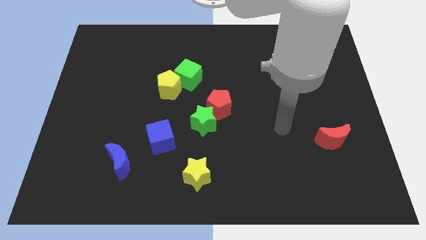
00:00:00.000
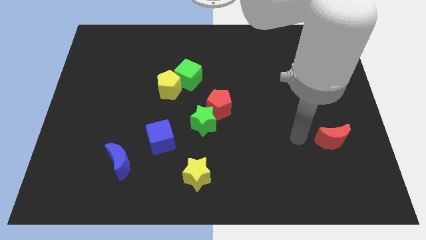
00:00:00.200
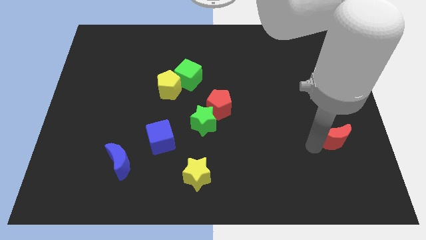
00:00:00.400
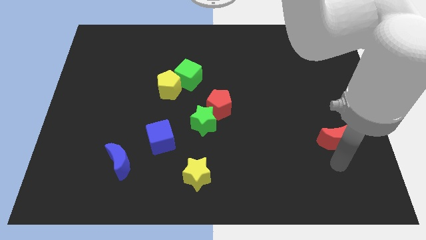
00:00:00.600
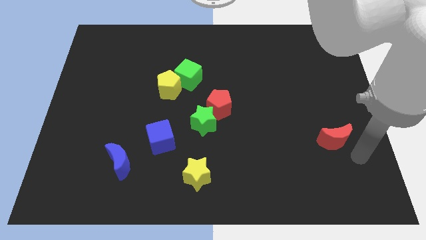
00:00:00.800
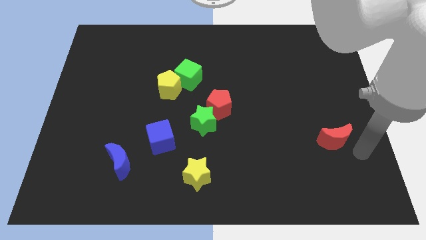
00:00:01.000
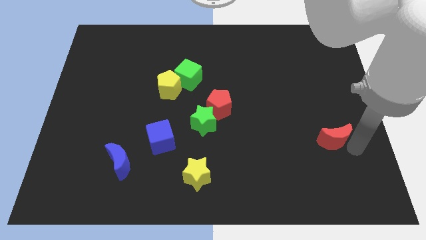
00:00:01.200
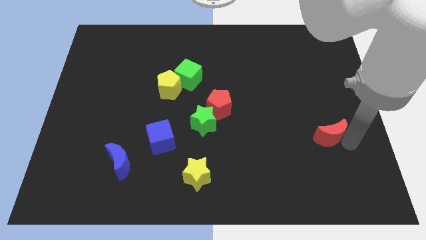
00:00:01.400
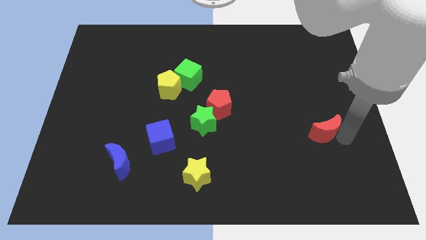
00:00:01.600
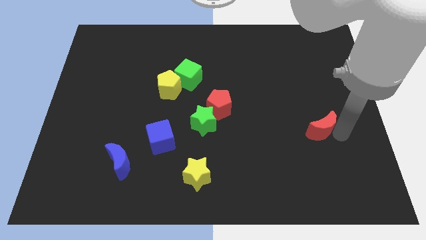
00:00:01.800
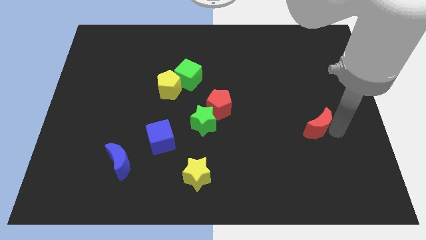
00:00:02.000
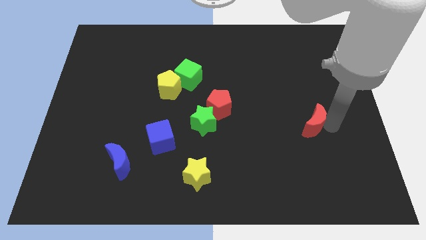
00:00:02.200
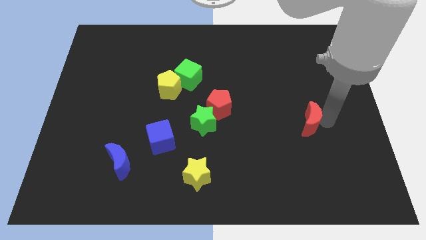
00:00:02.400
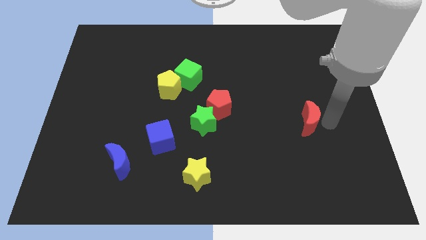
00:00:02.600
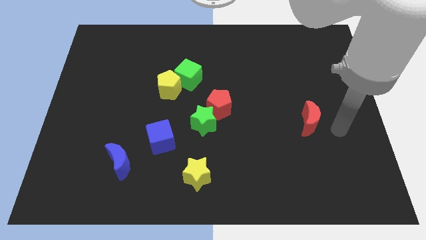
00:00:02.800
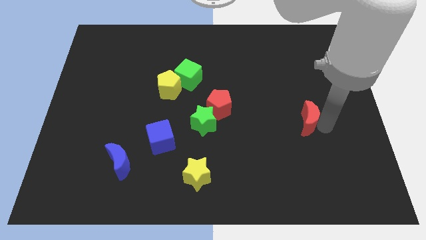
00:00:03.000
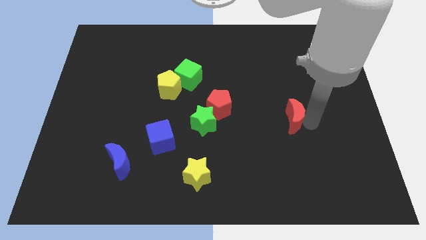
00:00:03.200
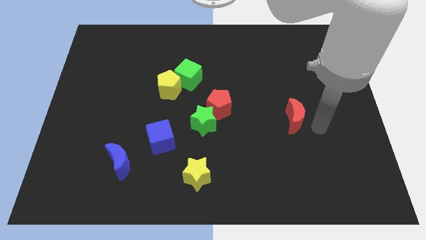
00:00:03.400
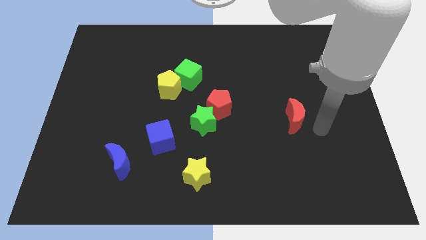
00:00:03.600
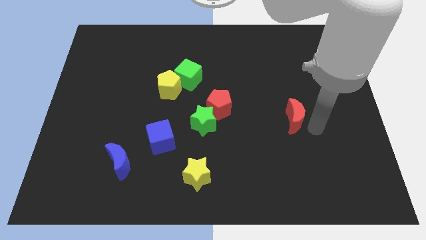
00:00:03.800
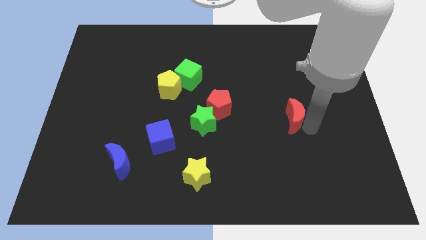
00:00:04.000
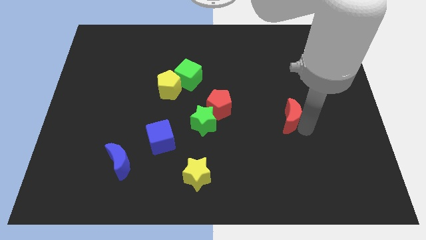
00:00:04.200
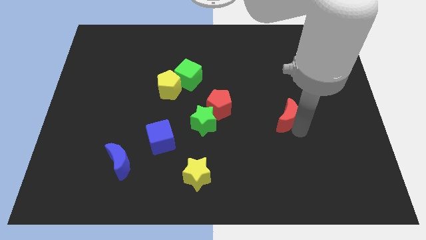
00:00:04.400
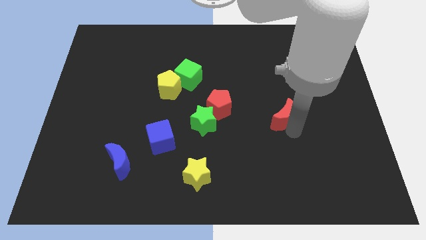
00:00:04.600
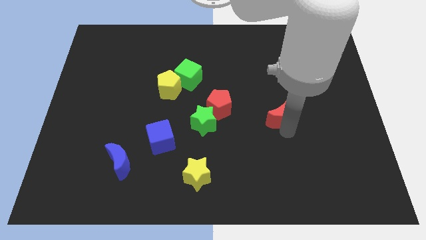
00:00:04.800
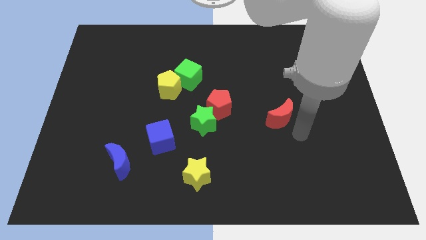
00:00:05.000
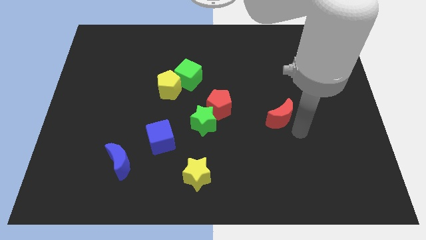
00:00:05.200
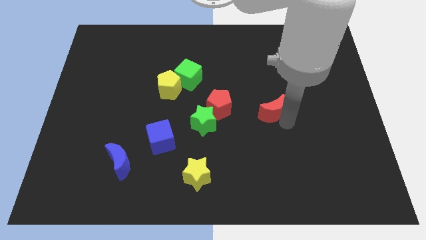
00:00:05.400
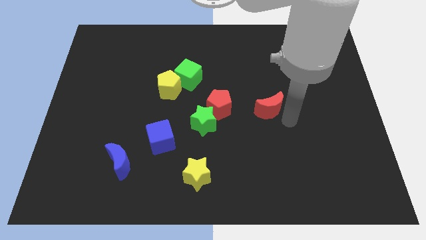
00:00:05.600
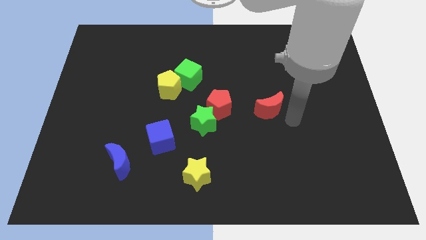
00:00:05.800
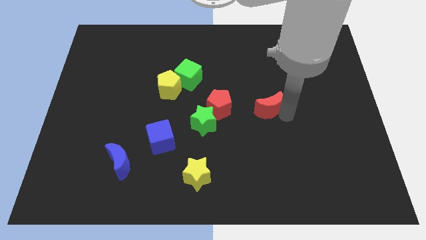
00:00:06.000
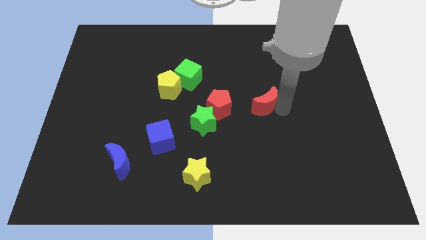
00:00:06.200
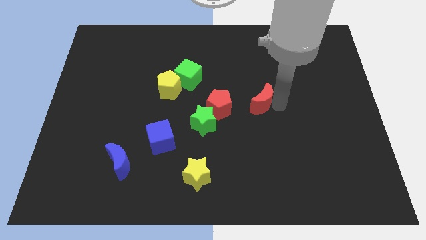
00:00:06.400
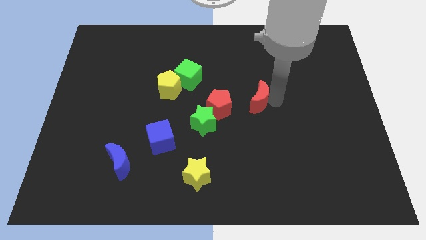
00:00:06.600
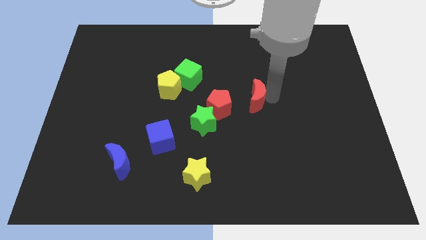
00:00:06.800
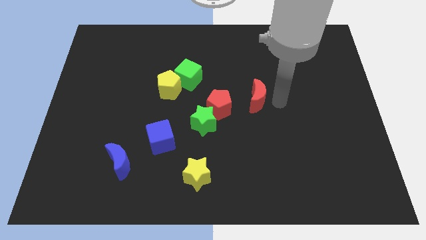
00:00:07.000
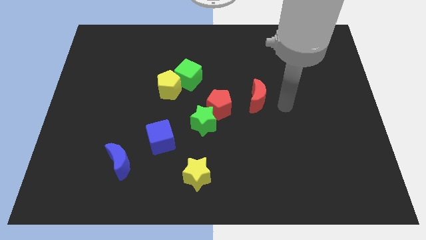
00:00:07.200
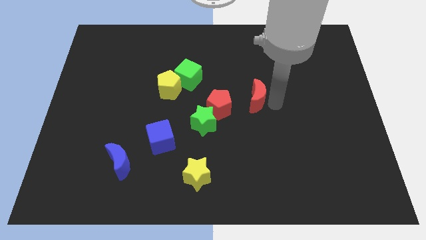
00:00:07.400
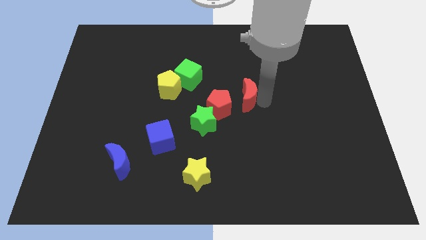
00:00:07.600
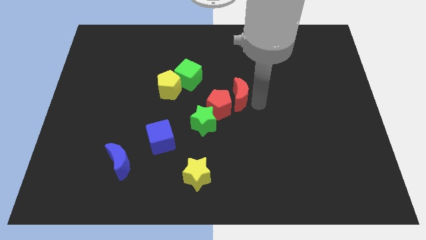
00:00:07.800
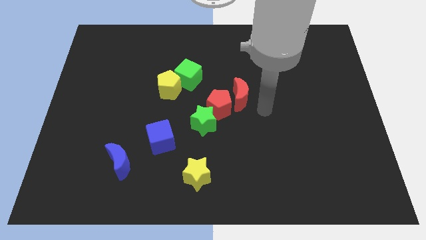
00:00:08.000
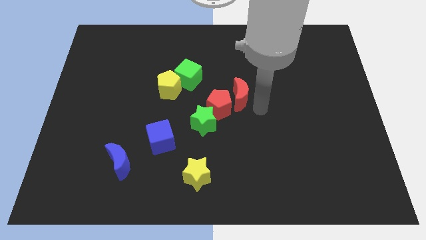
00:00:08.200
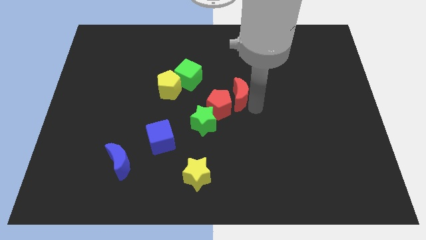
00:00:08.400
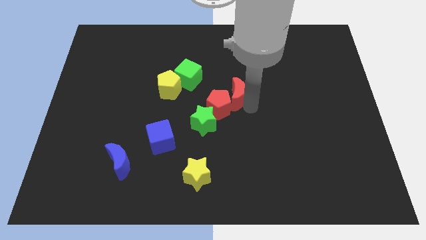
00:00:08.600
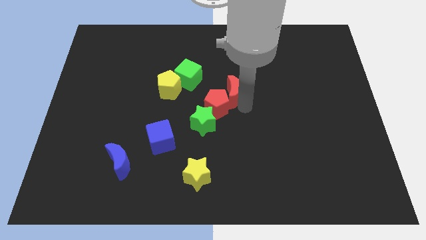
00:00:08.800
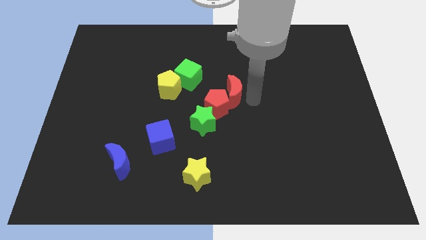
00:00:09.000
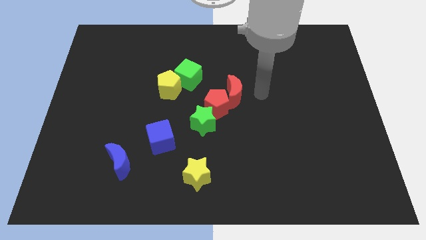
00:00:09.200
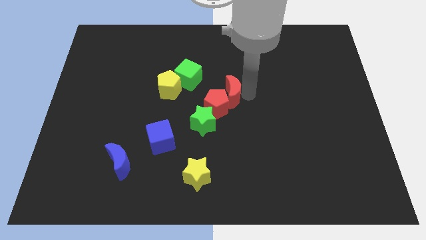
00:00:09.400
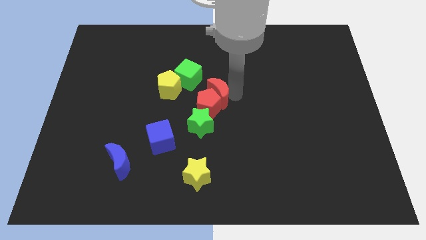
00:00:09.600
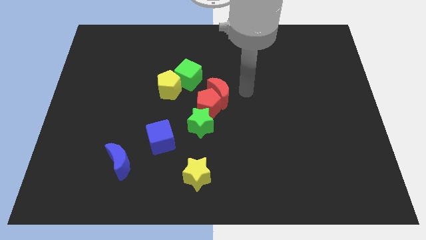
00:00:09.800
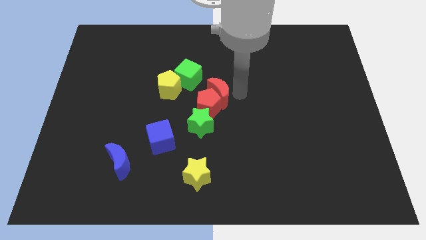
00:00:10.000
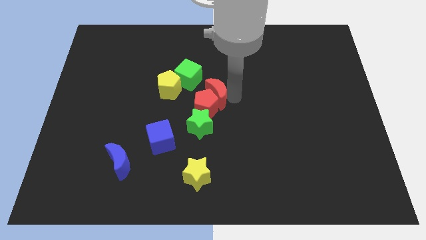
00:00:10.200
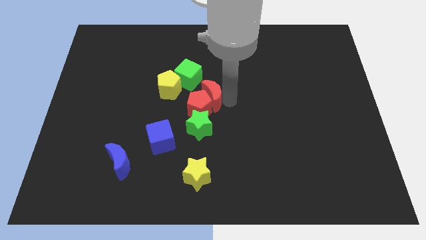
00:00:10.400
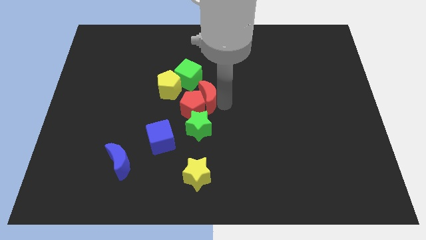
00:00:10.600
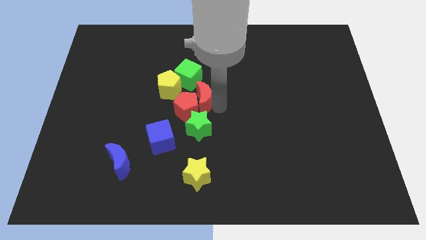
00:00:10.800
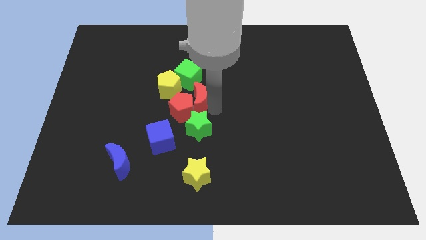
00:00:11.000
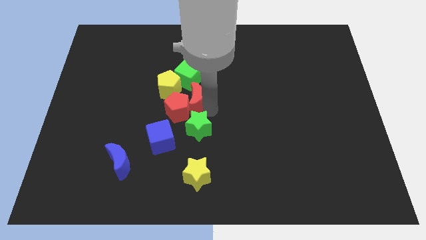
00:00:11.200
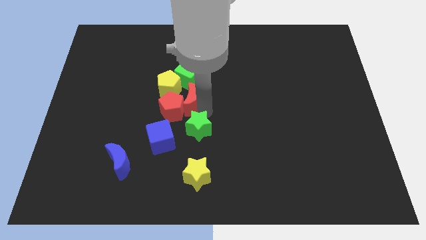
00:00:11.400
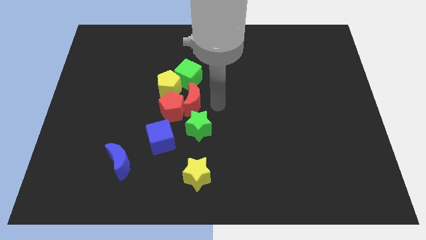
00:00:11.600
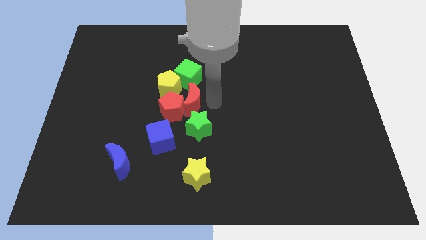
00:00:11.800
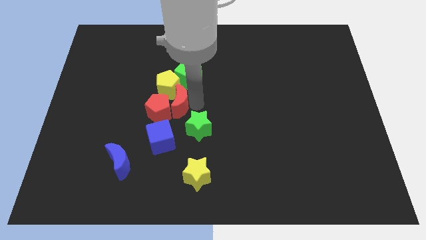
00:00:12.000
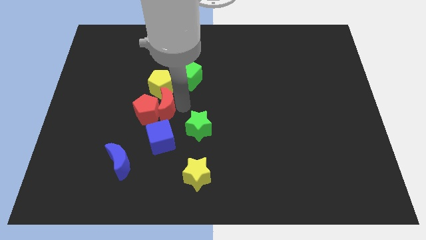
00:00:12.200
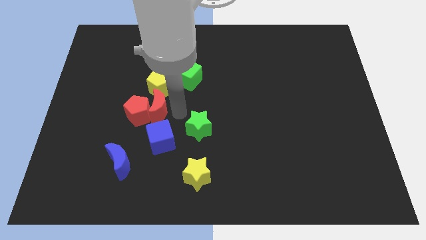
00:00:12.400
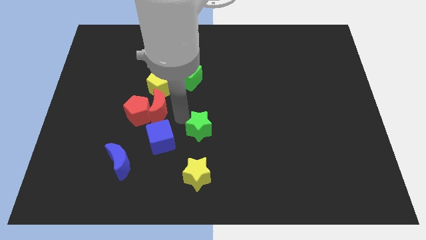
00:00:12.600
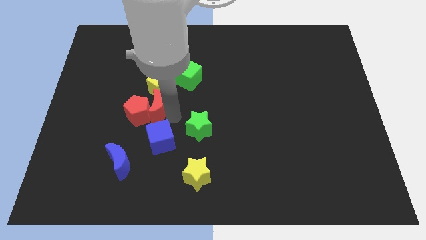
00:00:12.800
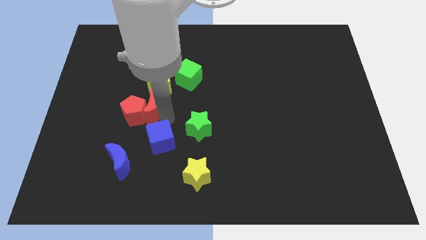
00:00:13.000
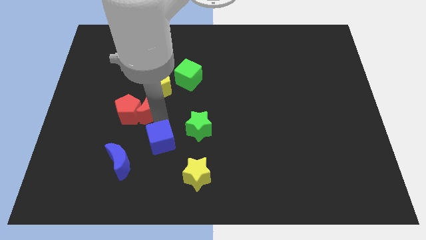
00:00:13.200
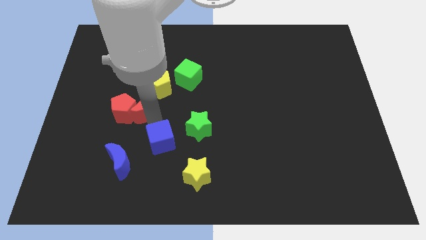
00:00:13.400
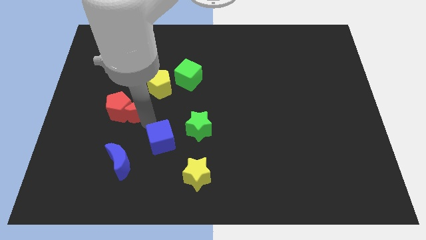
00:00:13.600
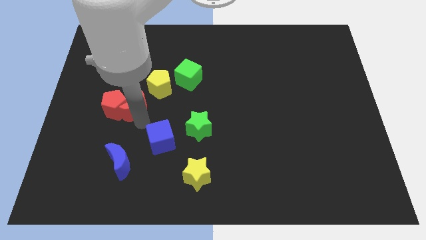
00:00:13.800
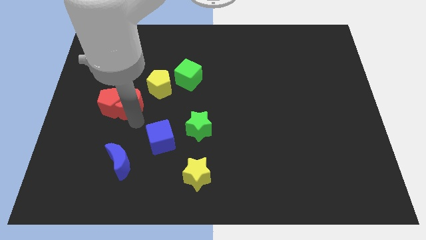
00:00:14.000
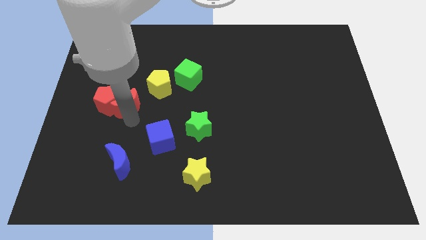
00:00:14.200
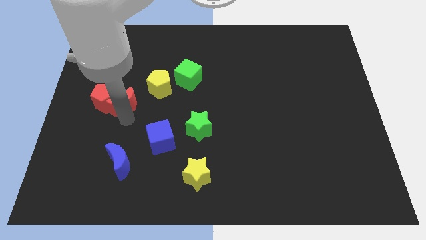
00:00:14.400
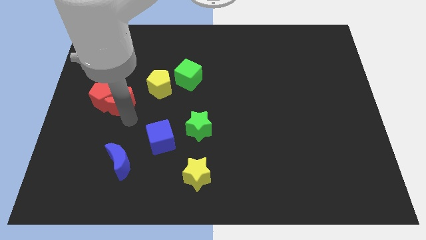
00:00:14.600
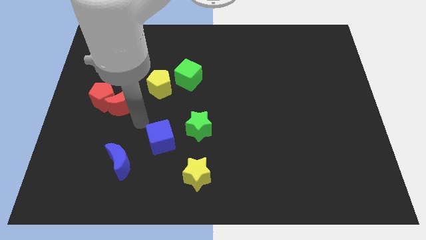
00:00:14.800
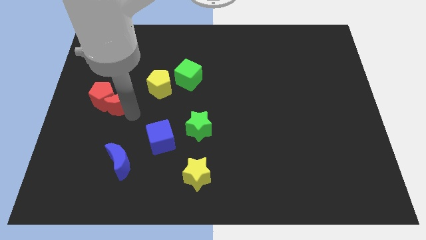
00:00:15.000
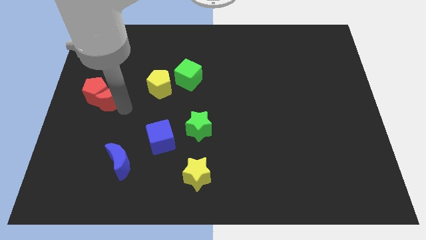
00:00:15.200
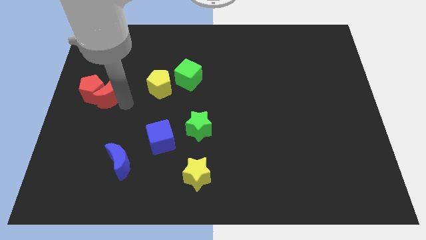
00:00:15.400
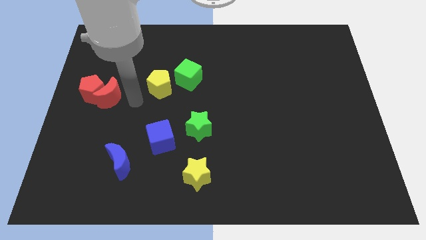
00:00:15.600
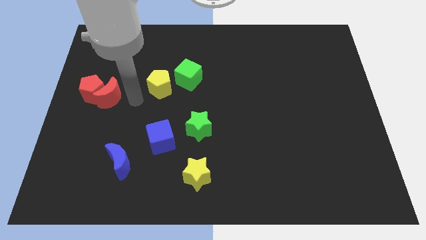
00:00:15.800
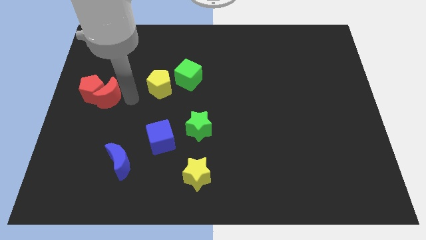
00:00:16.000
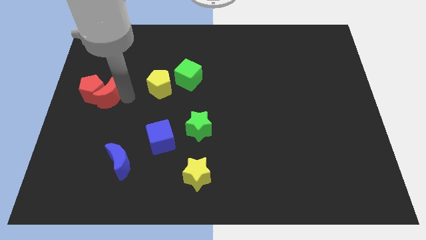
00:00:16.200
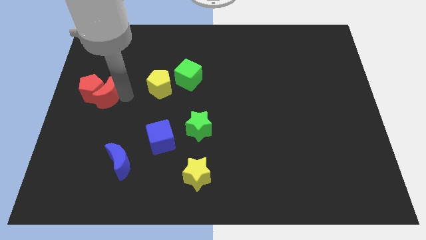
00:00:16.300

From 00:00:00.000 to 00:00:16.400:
put the red moon to the left side
